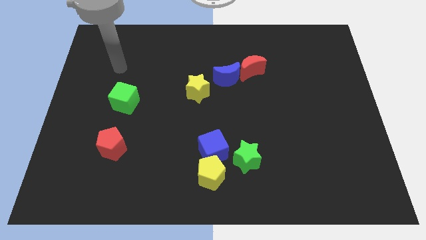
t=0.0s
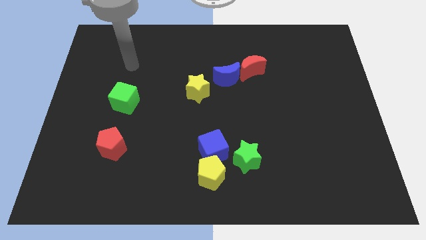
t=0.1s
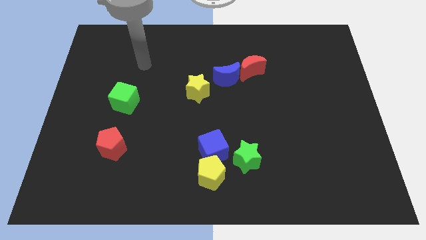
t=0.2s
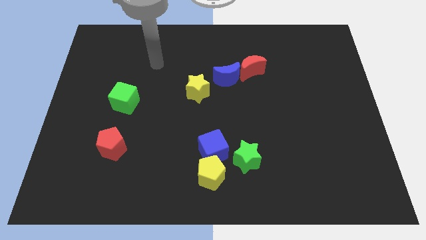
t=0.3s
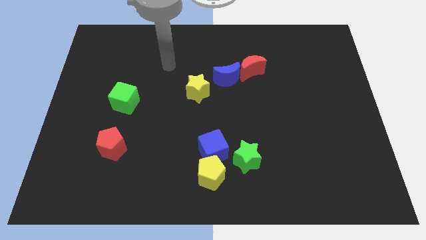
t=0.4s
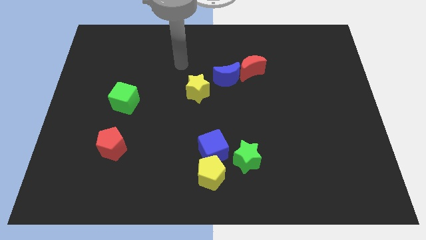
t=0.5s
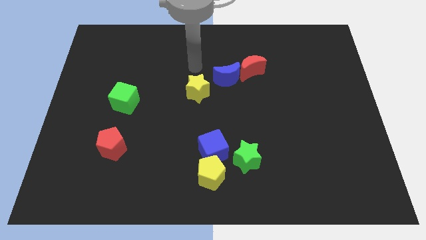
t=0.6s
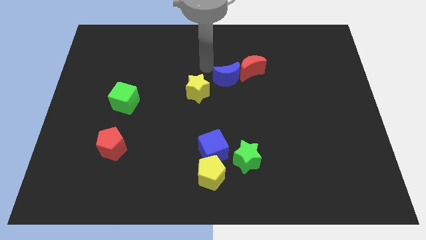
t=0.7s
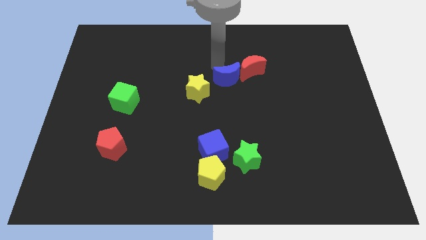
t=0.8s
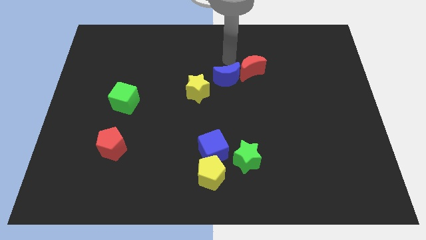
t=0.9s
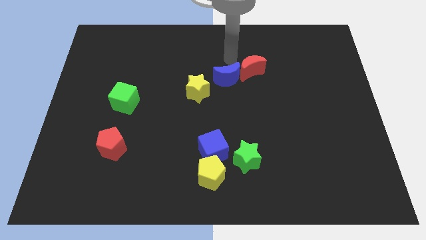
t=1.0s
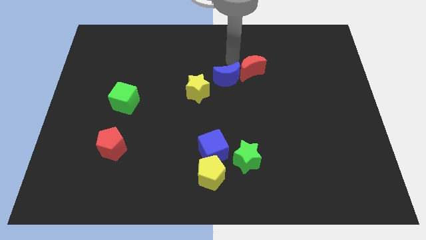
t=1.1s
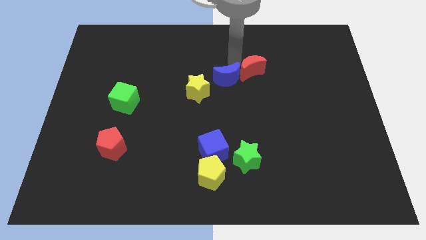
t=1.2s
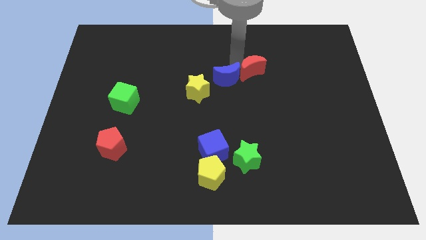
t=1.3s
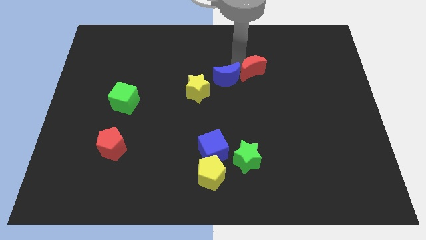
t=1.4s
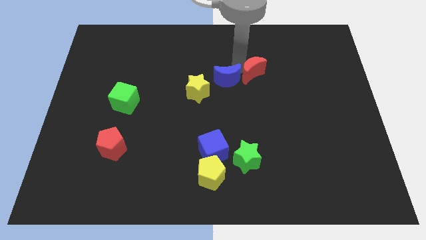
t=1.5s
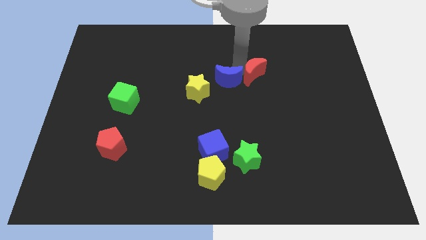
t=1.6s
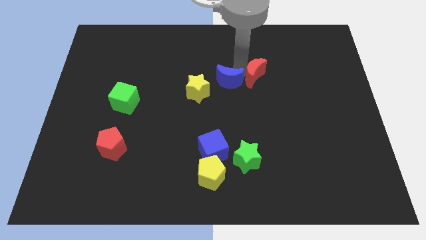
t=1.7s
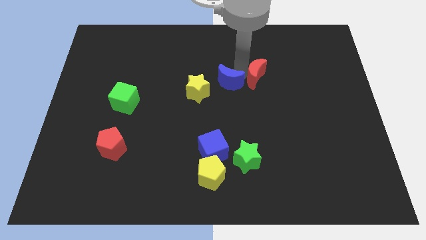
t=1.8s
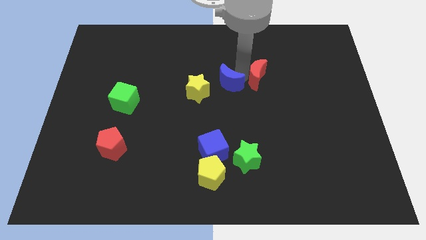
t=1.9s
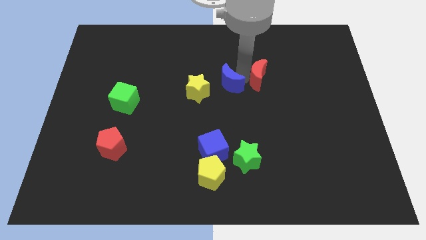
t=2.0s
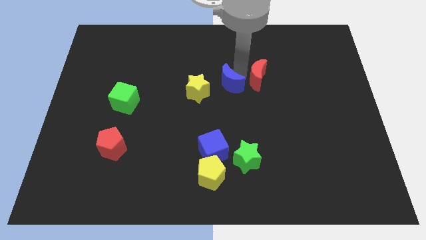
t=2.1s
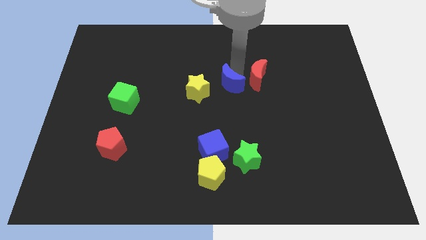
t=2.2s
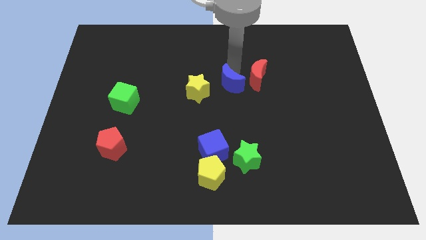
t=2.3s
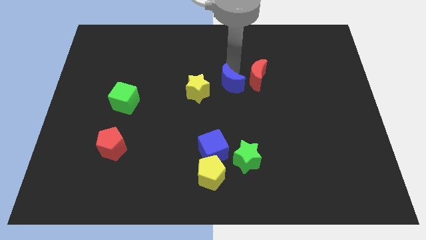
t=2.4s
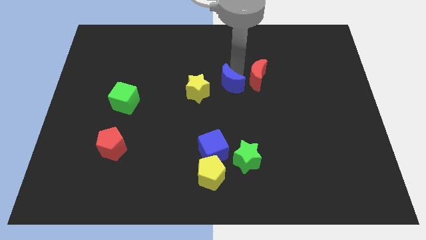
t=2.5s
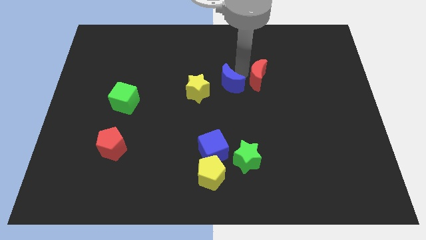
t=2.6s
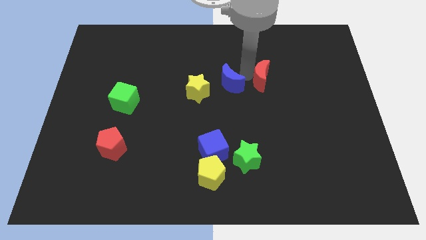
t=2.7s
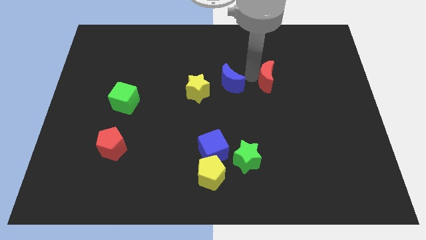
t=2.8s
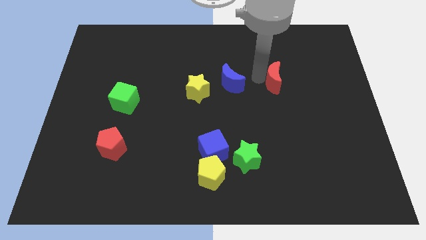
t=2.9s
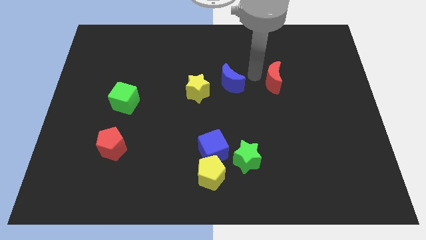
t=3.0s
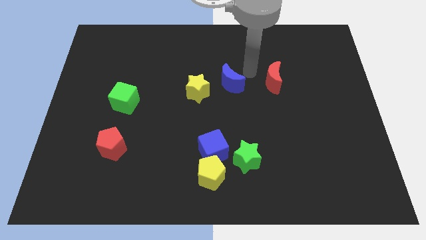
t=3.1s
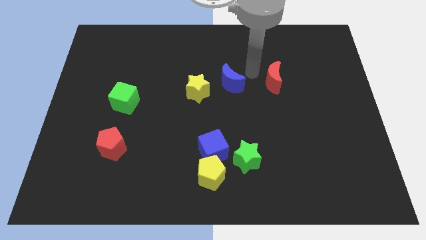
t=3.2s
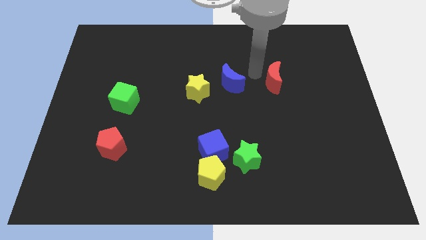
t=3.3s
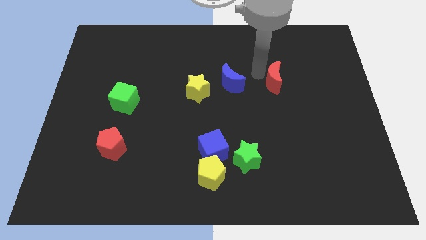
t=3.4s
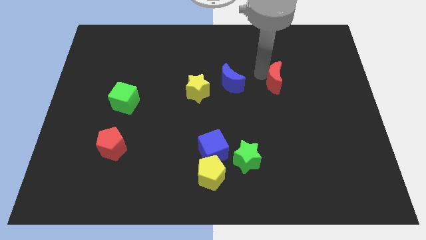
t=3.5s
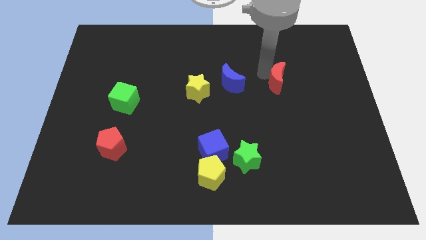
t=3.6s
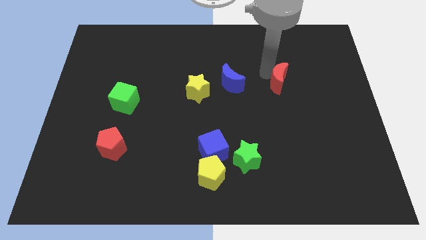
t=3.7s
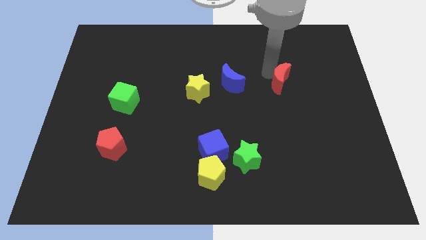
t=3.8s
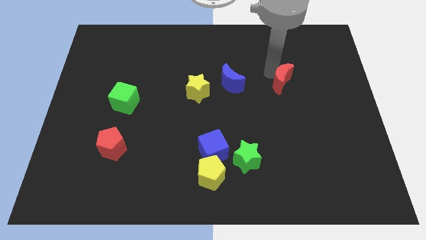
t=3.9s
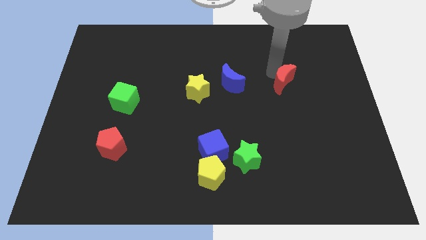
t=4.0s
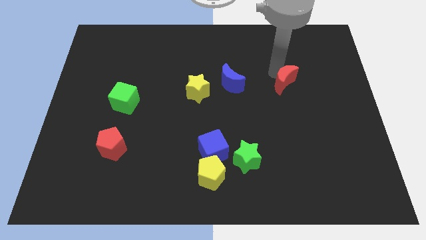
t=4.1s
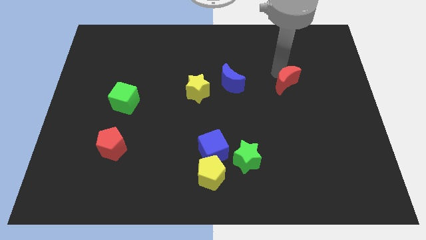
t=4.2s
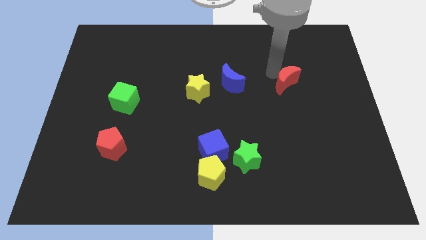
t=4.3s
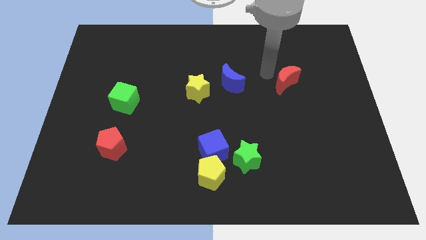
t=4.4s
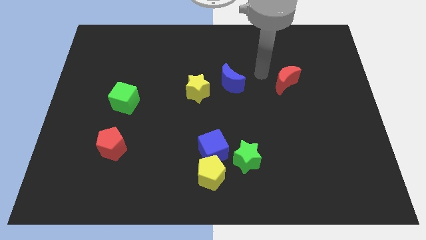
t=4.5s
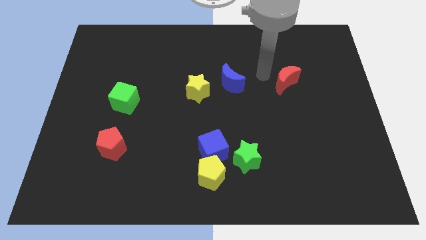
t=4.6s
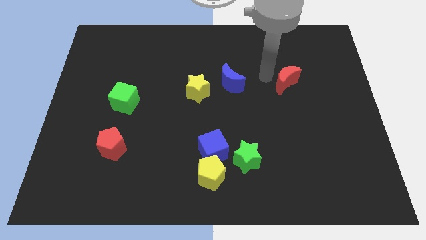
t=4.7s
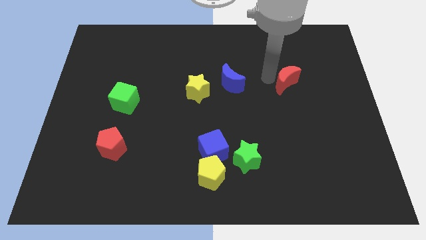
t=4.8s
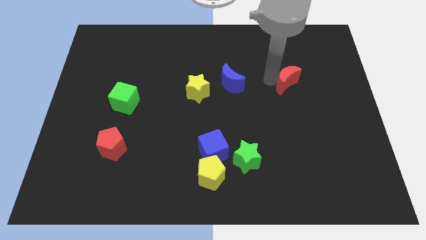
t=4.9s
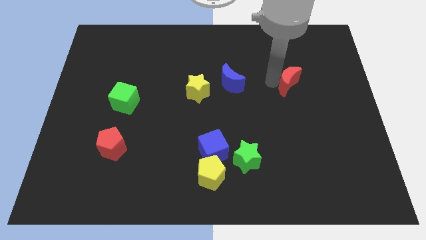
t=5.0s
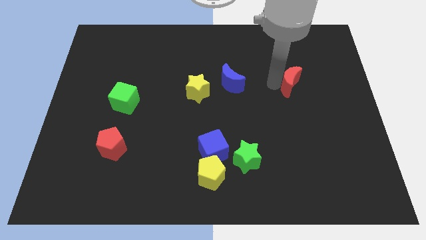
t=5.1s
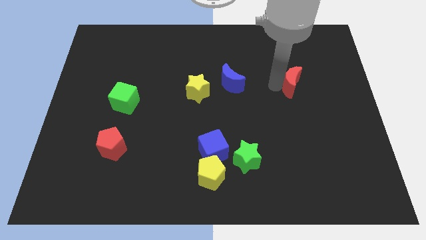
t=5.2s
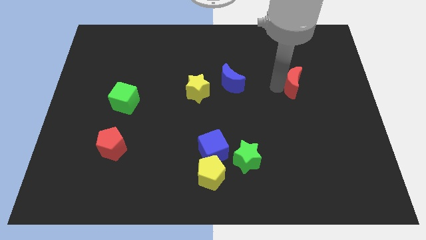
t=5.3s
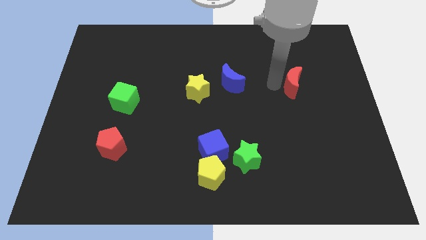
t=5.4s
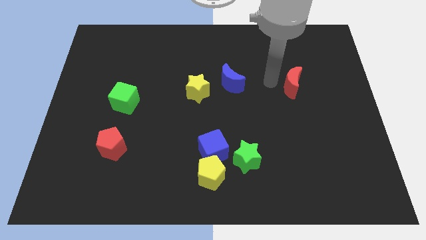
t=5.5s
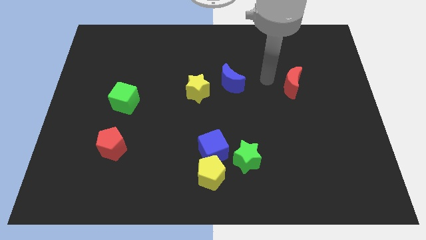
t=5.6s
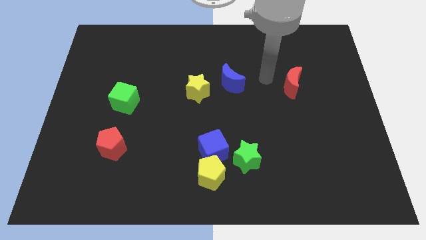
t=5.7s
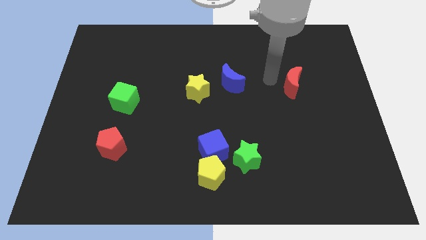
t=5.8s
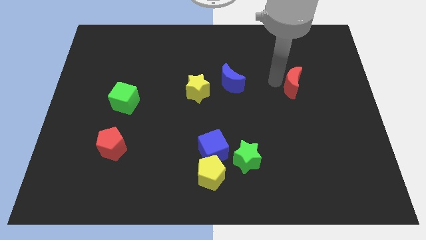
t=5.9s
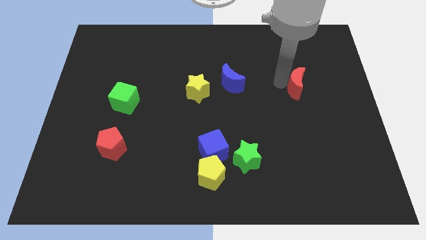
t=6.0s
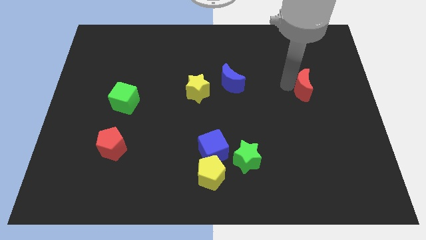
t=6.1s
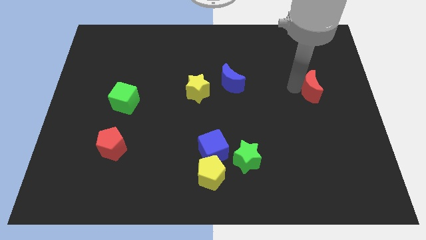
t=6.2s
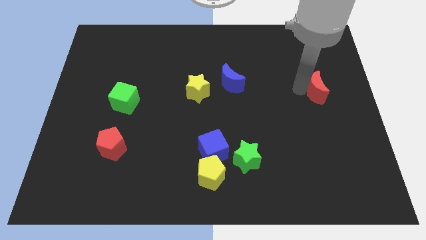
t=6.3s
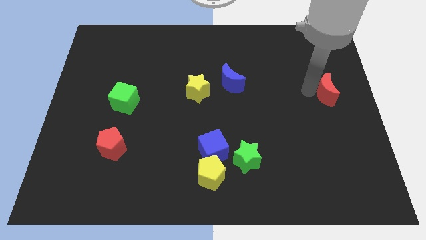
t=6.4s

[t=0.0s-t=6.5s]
put the red moon to the right side

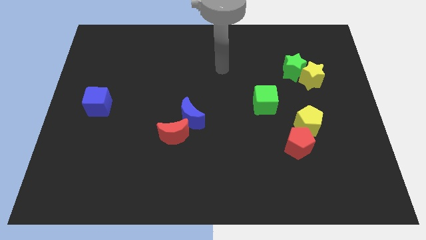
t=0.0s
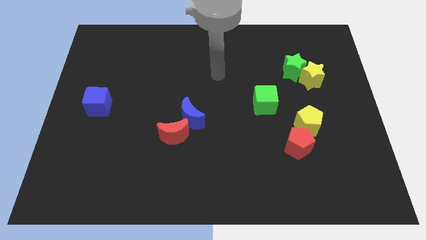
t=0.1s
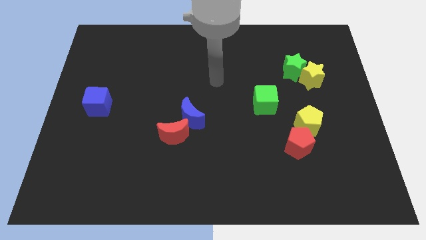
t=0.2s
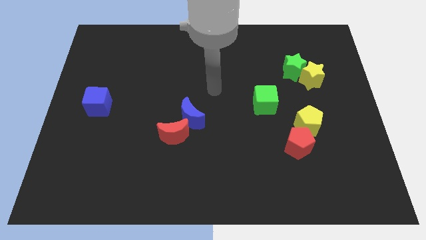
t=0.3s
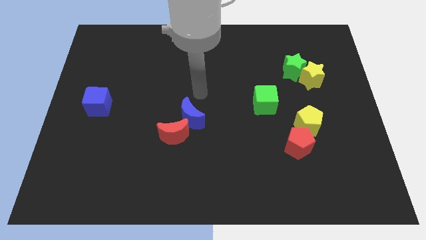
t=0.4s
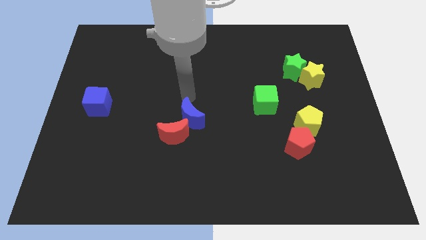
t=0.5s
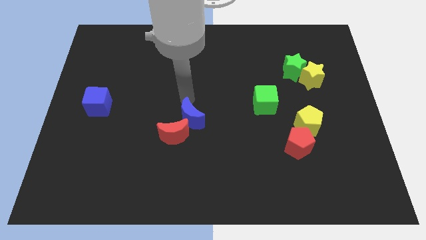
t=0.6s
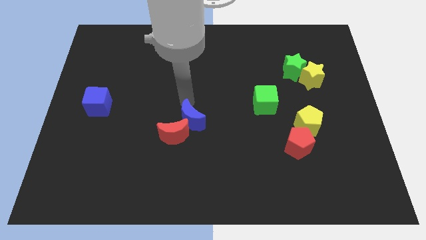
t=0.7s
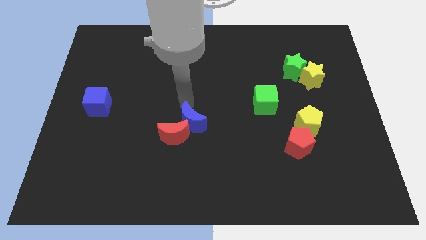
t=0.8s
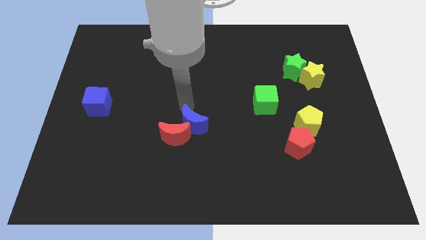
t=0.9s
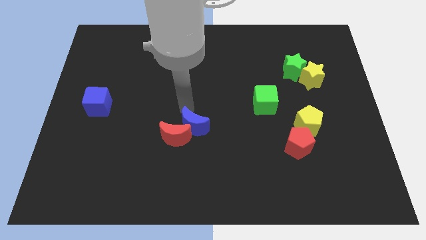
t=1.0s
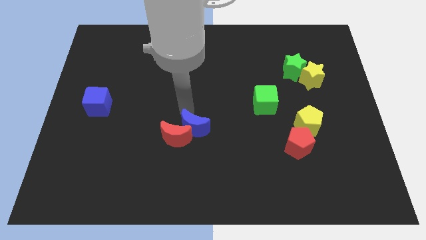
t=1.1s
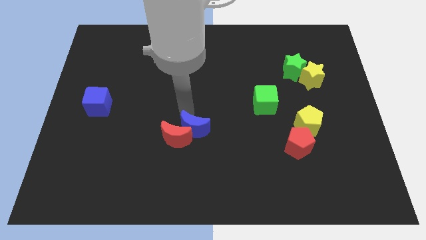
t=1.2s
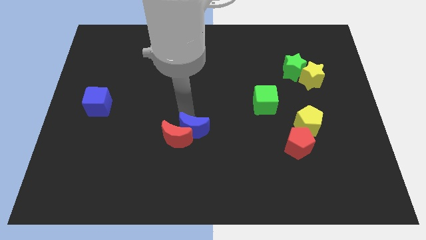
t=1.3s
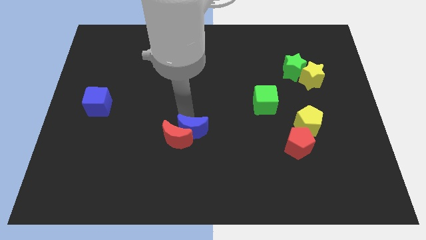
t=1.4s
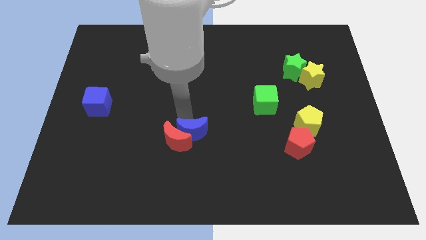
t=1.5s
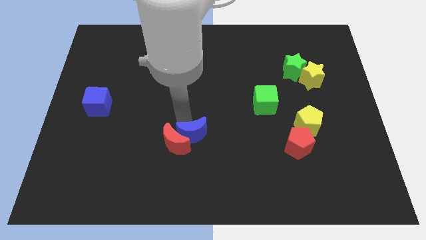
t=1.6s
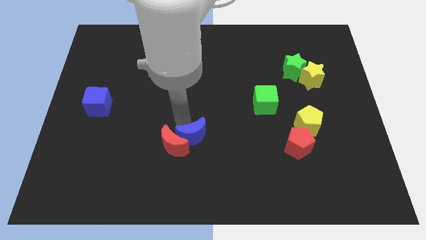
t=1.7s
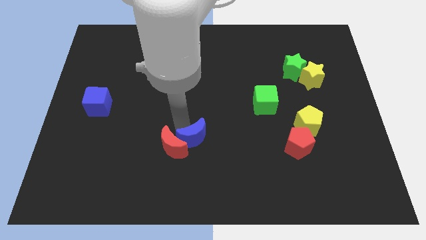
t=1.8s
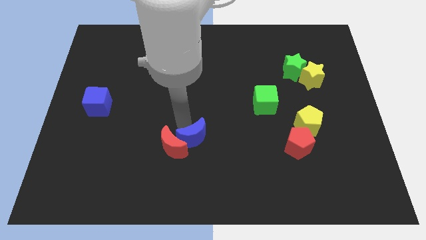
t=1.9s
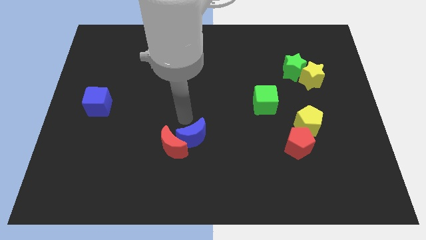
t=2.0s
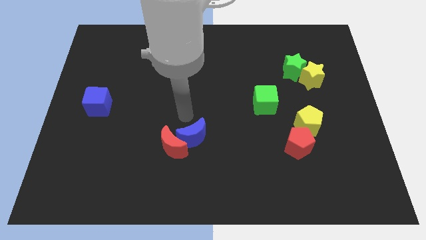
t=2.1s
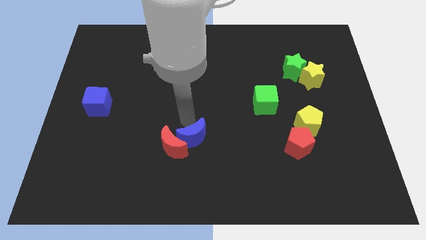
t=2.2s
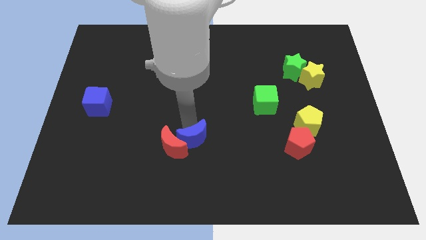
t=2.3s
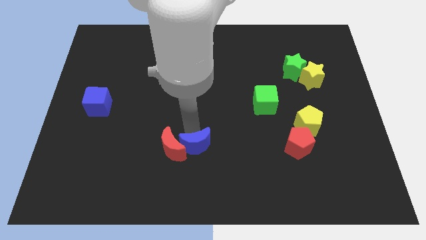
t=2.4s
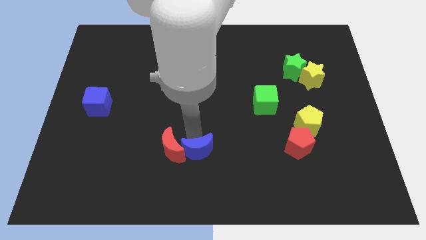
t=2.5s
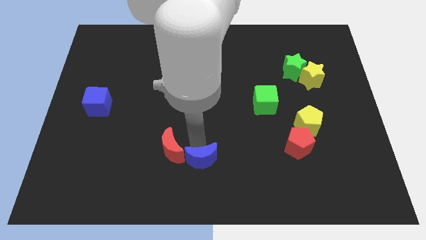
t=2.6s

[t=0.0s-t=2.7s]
slide the blue moon to the bottom side
